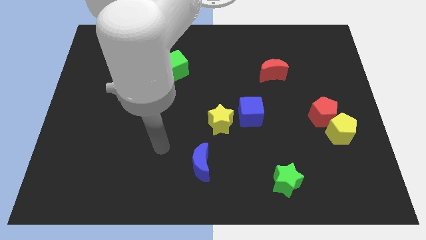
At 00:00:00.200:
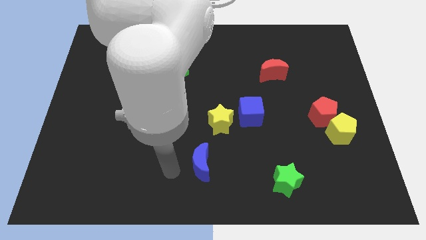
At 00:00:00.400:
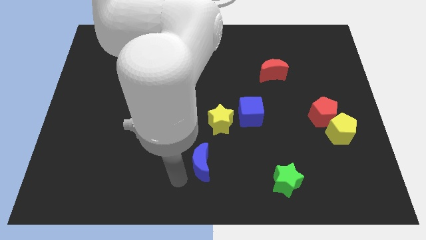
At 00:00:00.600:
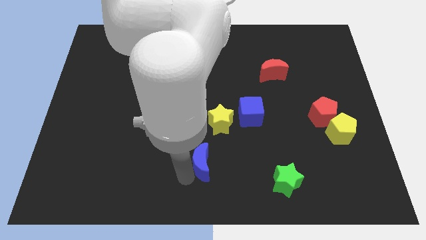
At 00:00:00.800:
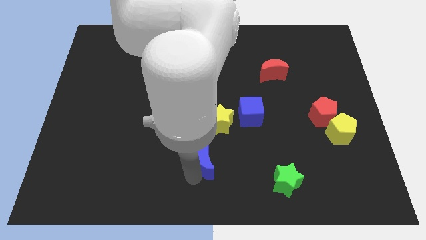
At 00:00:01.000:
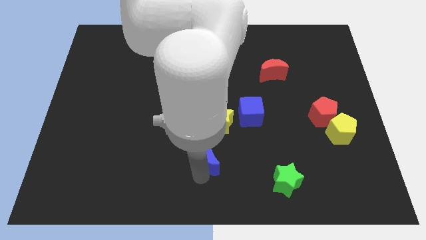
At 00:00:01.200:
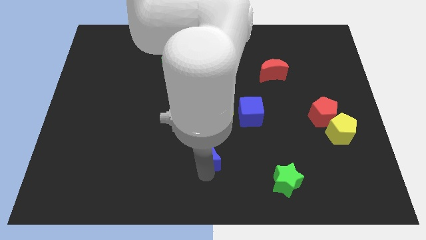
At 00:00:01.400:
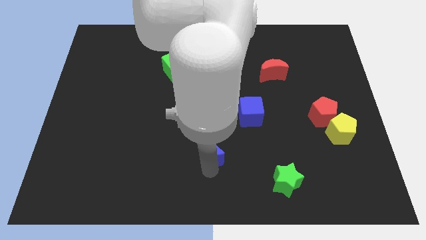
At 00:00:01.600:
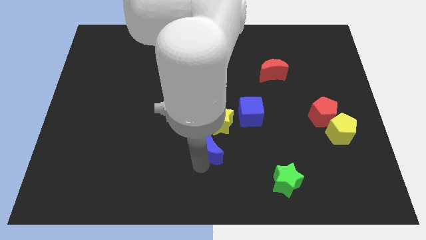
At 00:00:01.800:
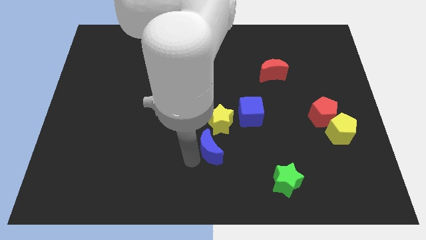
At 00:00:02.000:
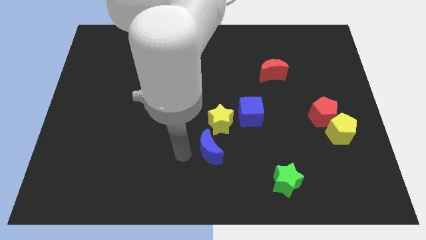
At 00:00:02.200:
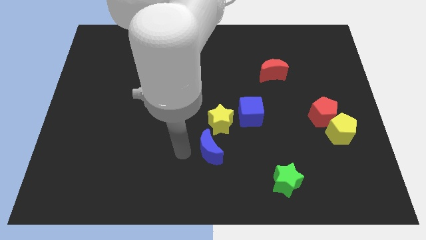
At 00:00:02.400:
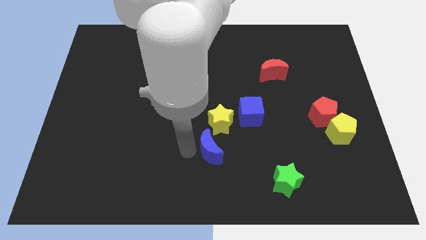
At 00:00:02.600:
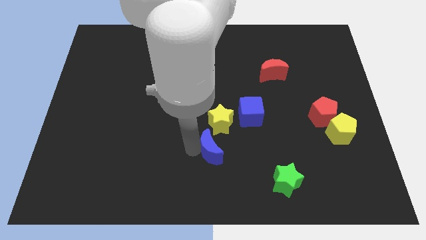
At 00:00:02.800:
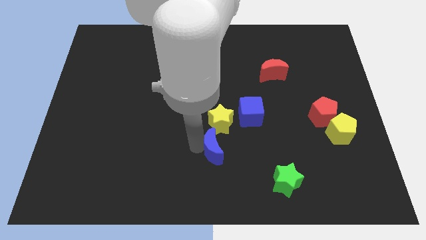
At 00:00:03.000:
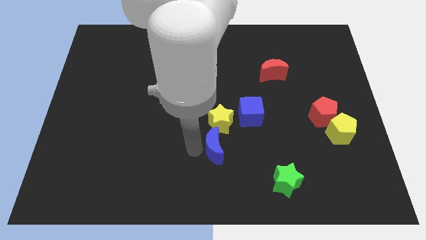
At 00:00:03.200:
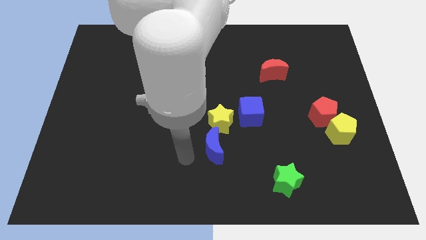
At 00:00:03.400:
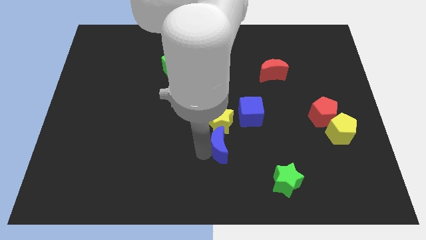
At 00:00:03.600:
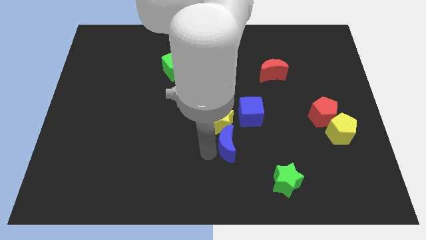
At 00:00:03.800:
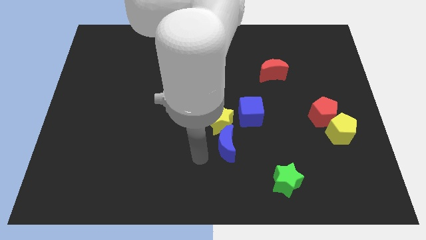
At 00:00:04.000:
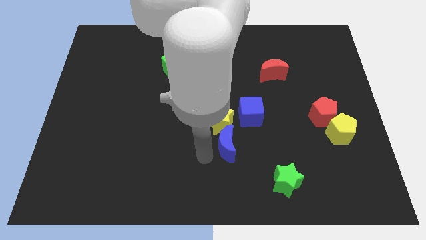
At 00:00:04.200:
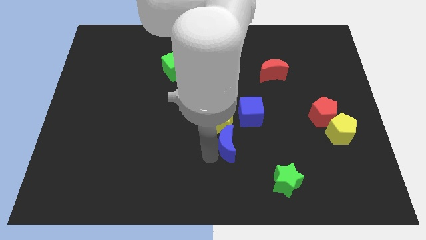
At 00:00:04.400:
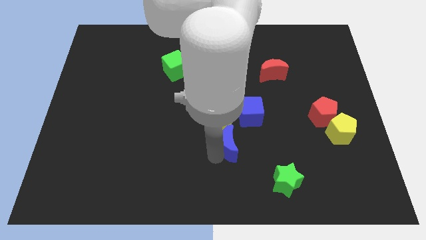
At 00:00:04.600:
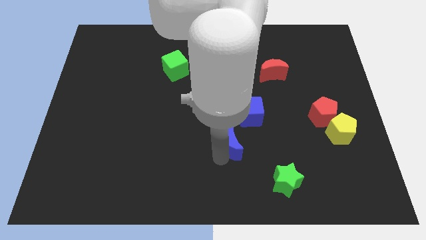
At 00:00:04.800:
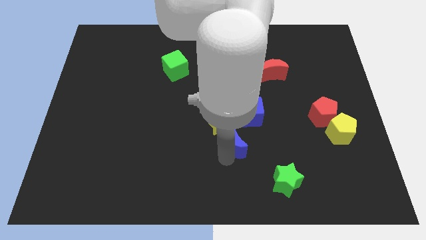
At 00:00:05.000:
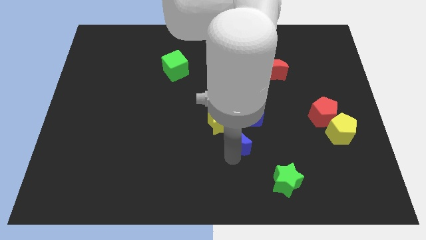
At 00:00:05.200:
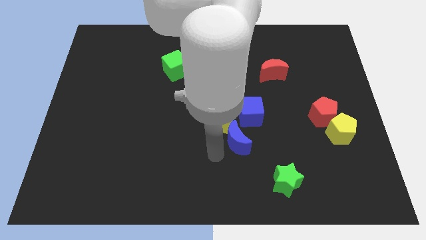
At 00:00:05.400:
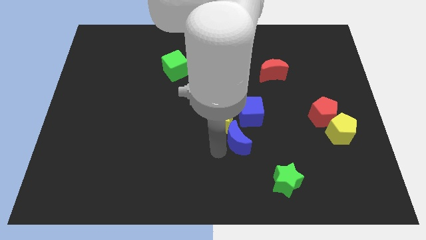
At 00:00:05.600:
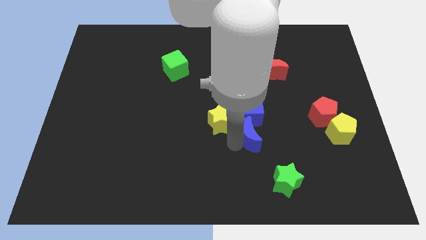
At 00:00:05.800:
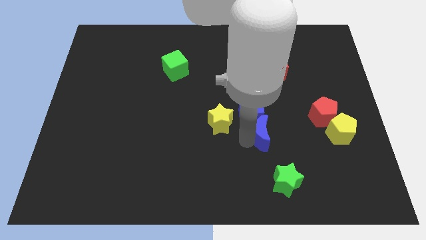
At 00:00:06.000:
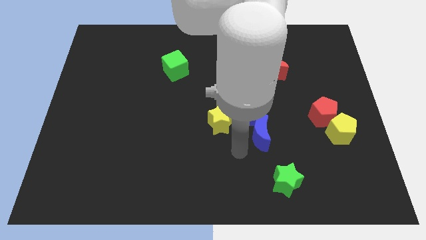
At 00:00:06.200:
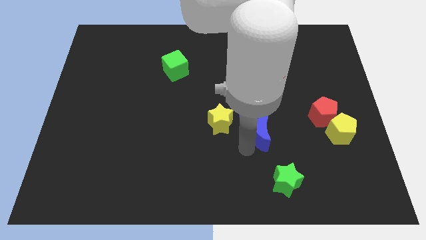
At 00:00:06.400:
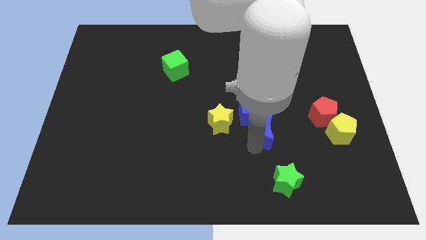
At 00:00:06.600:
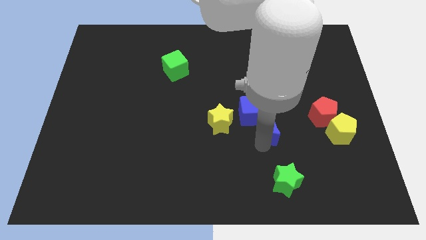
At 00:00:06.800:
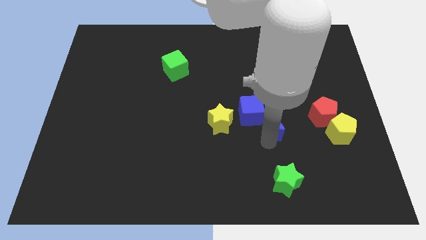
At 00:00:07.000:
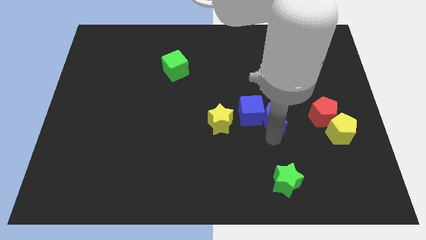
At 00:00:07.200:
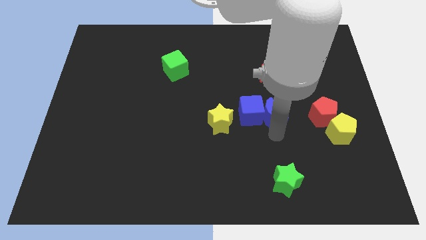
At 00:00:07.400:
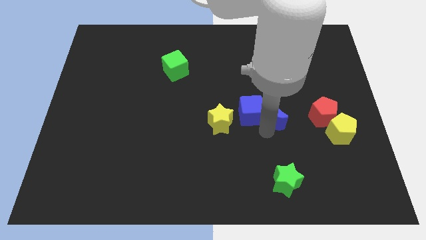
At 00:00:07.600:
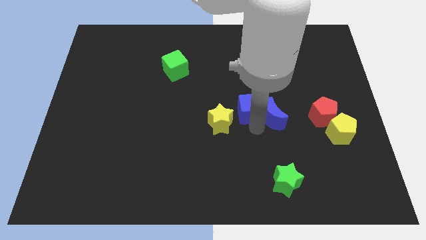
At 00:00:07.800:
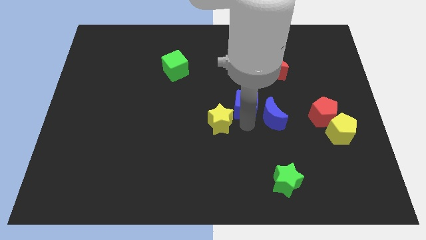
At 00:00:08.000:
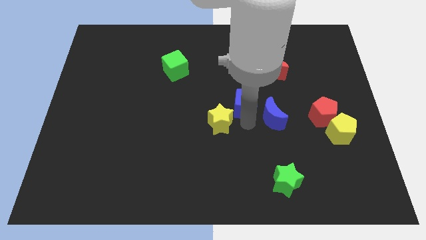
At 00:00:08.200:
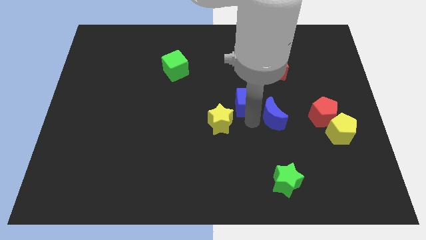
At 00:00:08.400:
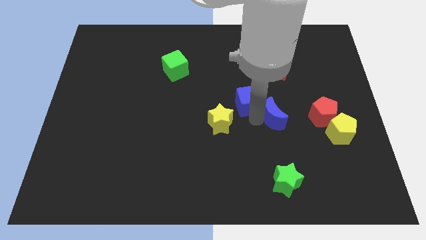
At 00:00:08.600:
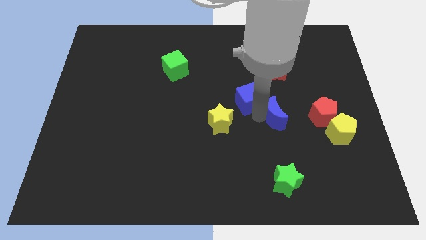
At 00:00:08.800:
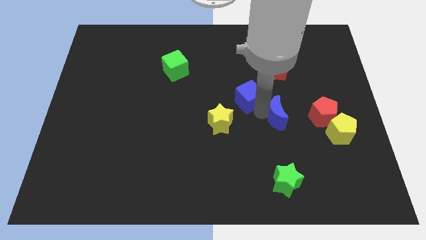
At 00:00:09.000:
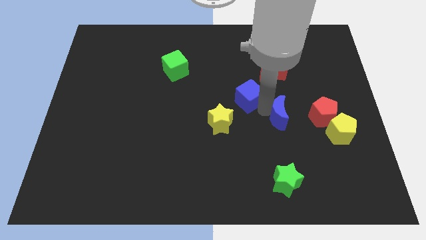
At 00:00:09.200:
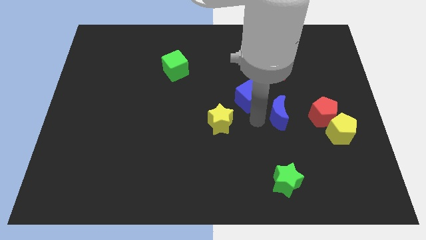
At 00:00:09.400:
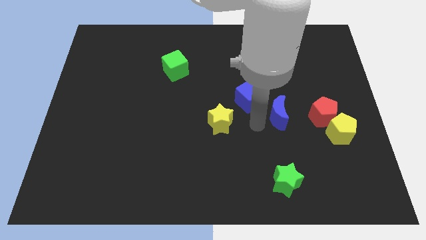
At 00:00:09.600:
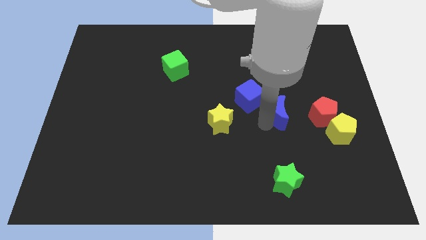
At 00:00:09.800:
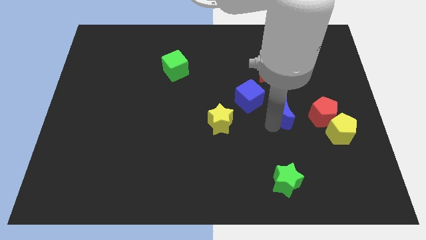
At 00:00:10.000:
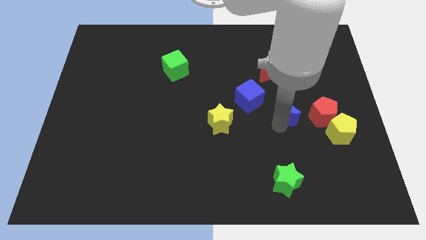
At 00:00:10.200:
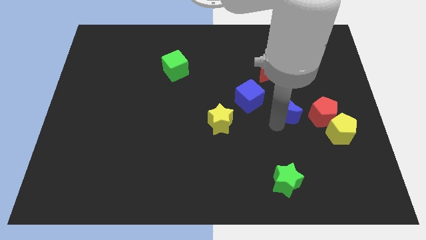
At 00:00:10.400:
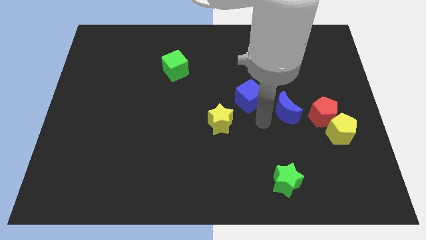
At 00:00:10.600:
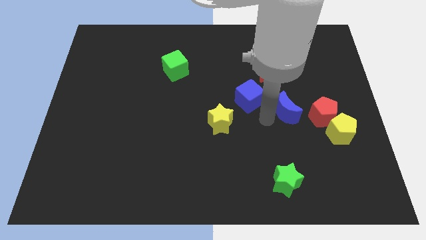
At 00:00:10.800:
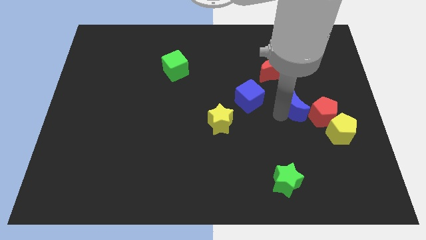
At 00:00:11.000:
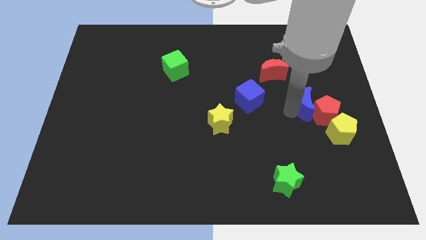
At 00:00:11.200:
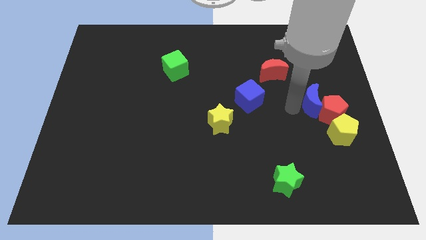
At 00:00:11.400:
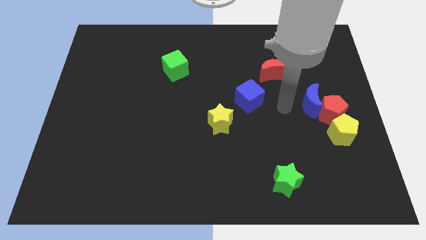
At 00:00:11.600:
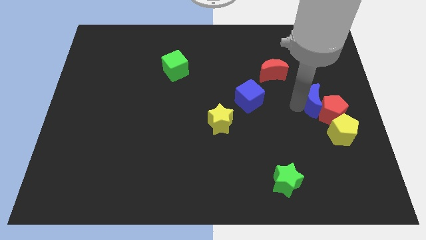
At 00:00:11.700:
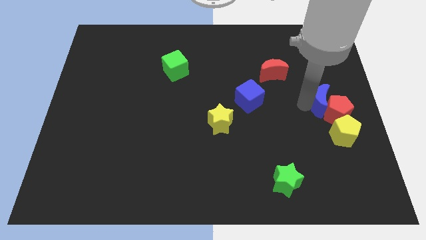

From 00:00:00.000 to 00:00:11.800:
slide the blue moon to the right side of the board
